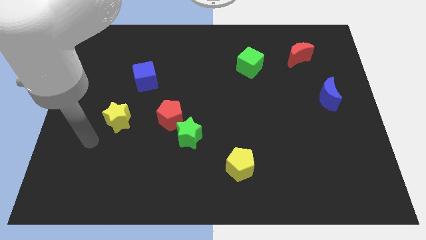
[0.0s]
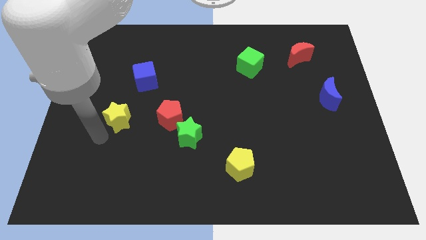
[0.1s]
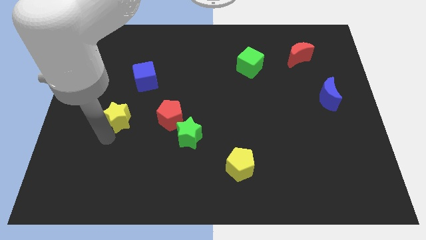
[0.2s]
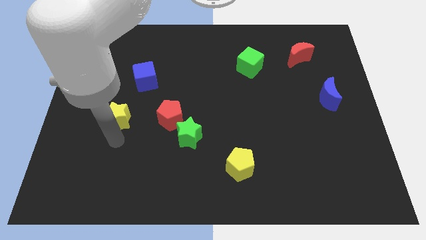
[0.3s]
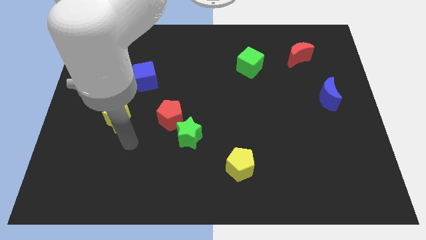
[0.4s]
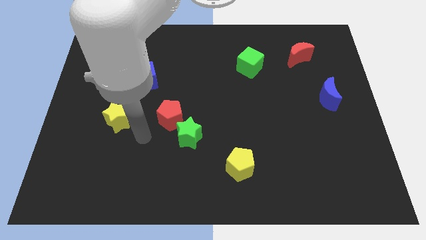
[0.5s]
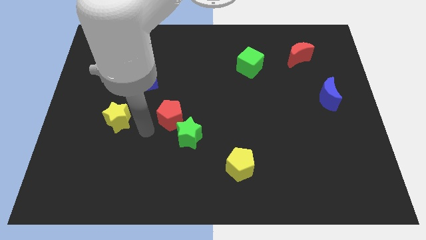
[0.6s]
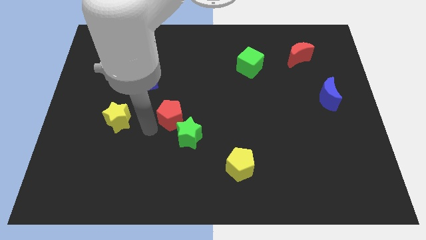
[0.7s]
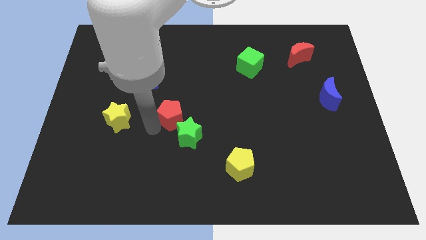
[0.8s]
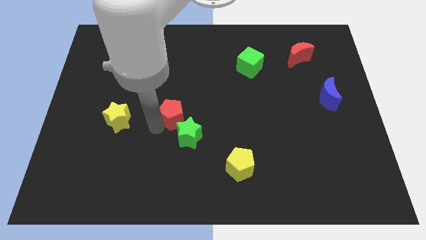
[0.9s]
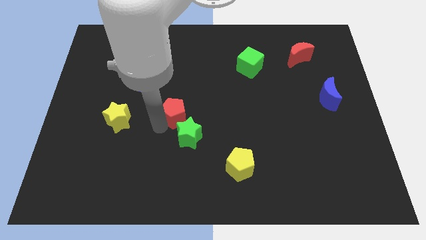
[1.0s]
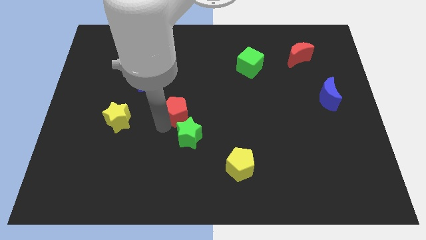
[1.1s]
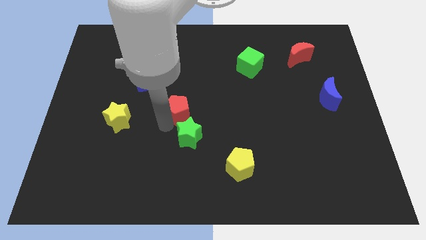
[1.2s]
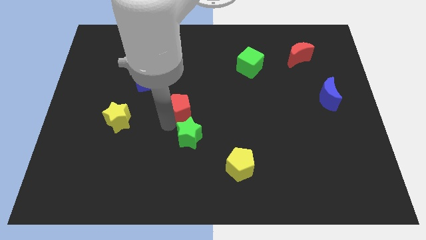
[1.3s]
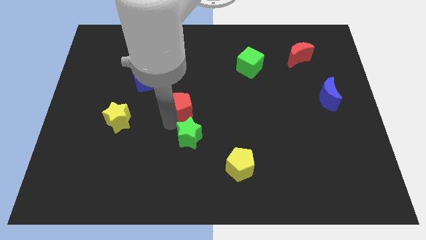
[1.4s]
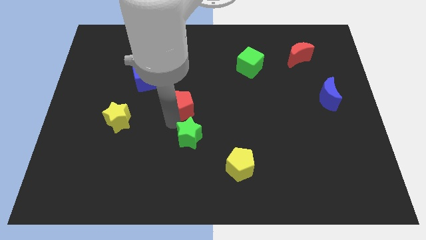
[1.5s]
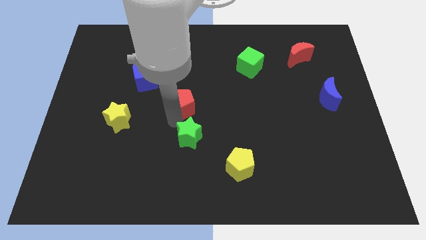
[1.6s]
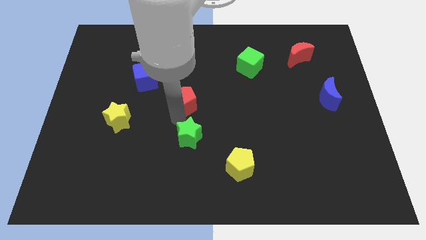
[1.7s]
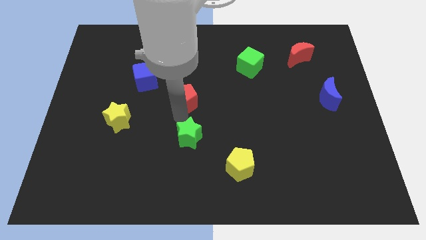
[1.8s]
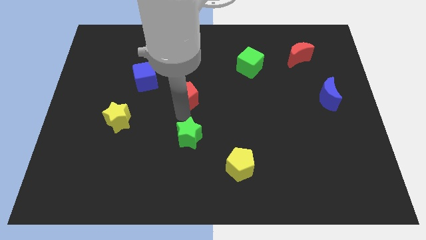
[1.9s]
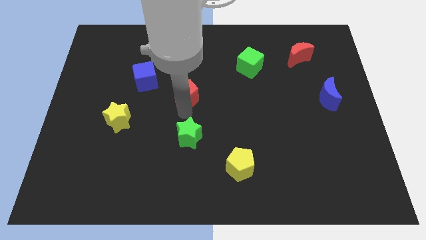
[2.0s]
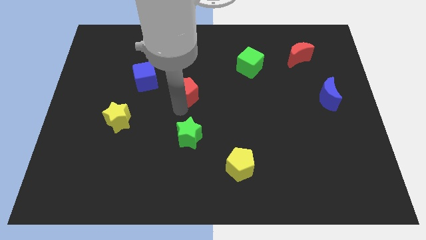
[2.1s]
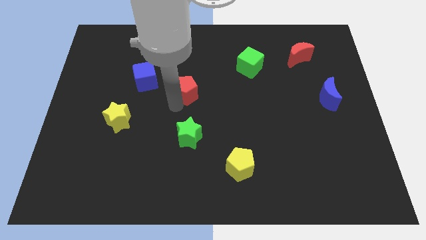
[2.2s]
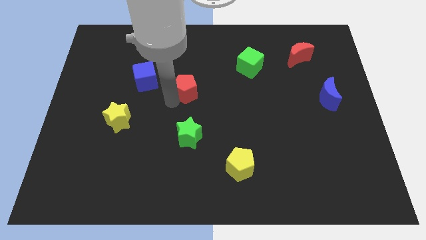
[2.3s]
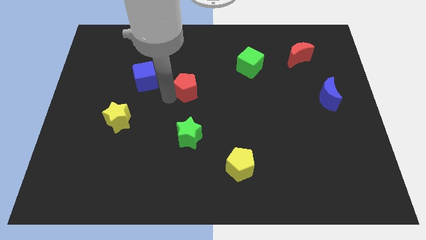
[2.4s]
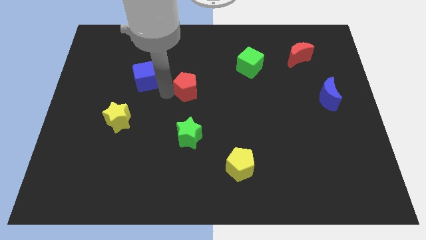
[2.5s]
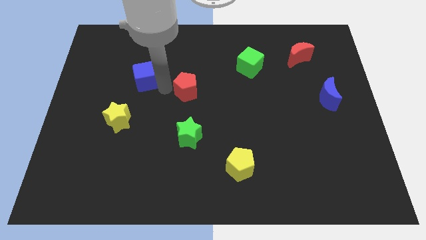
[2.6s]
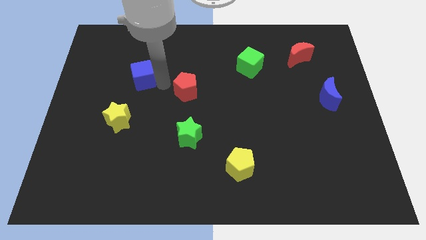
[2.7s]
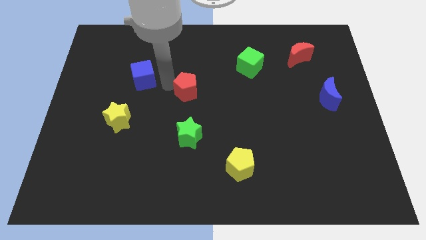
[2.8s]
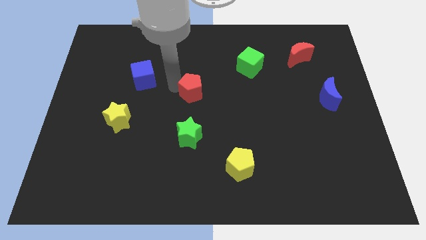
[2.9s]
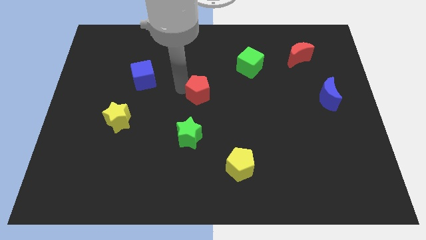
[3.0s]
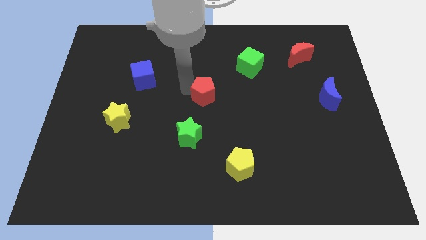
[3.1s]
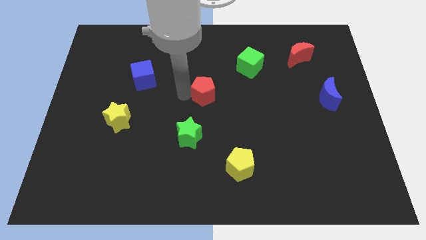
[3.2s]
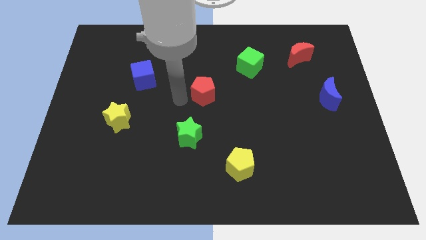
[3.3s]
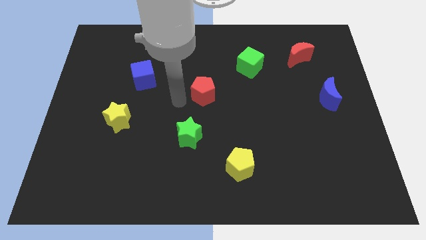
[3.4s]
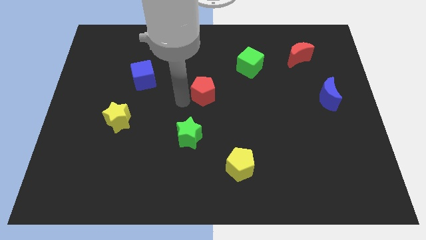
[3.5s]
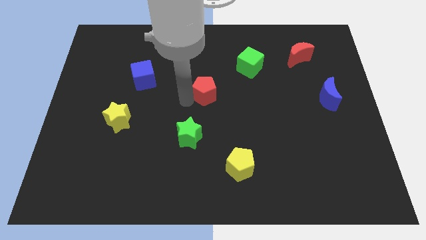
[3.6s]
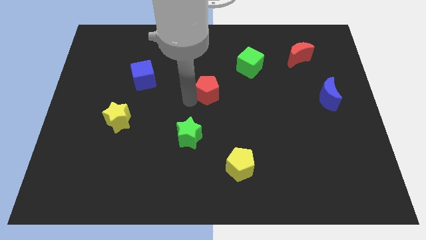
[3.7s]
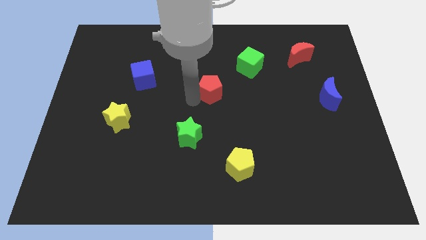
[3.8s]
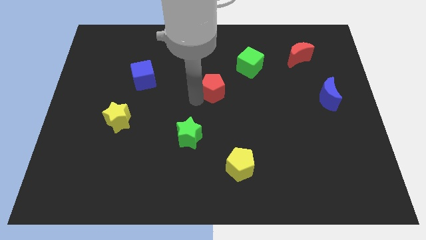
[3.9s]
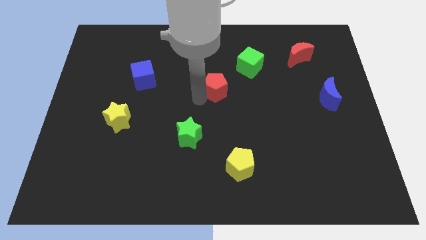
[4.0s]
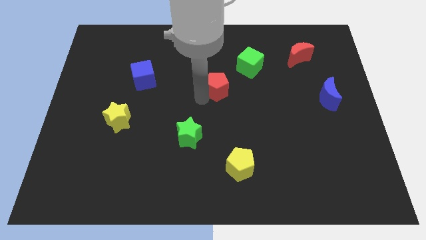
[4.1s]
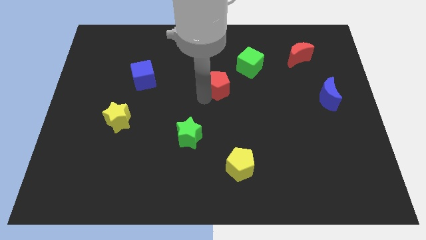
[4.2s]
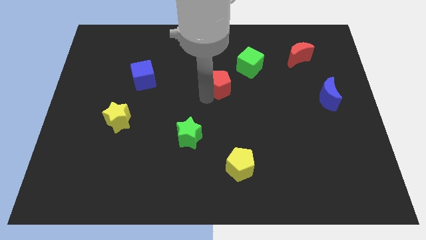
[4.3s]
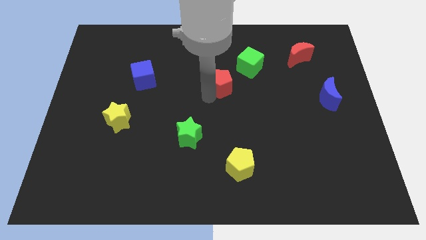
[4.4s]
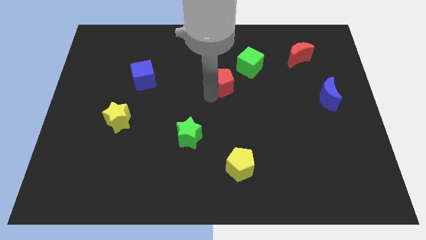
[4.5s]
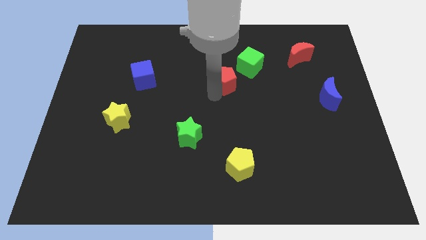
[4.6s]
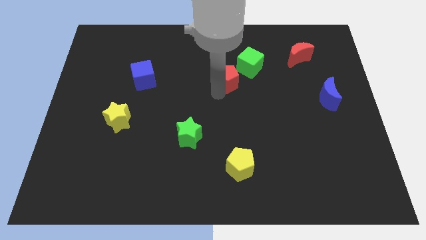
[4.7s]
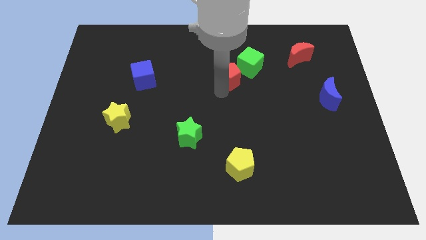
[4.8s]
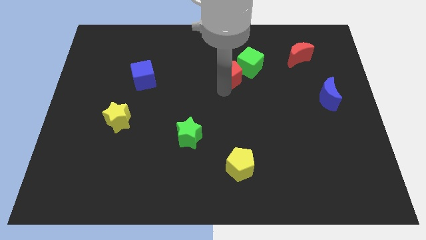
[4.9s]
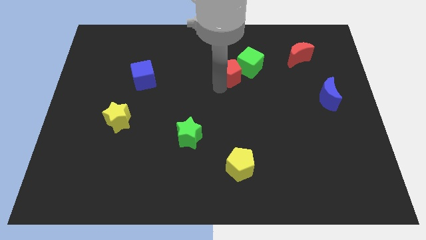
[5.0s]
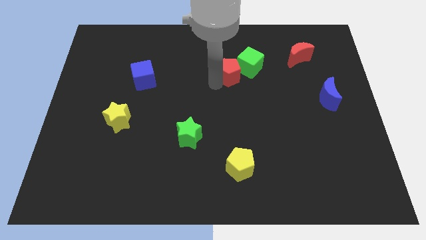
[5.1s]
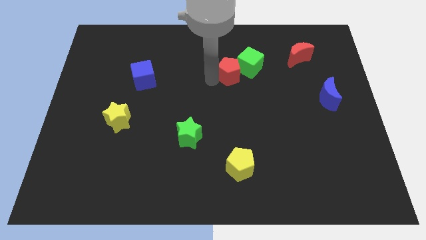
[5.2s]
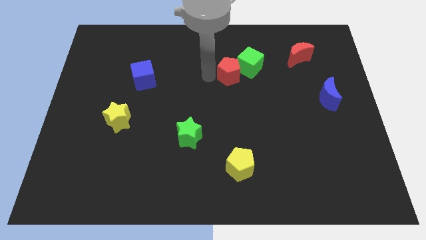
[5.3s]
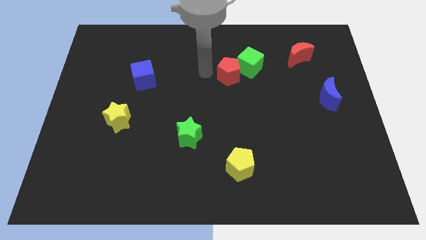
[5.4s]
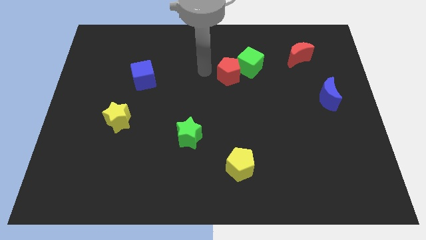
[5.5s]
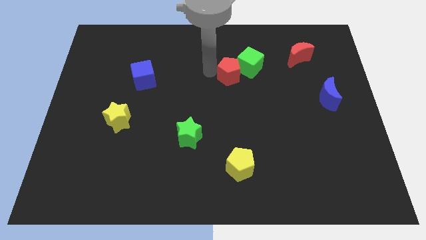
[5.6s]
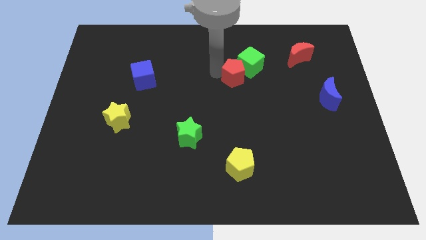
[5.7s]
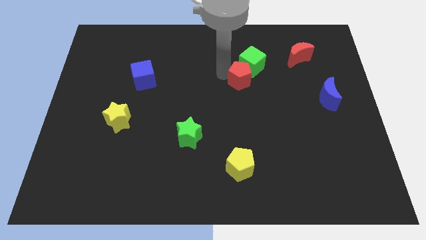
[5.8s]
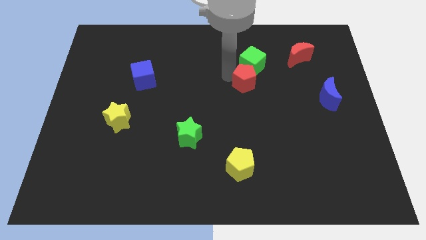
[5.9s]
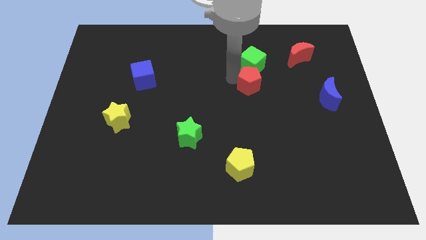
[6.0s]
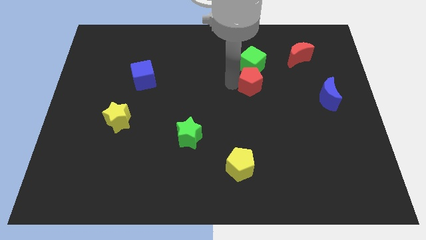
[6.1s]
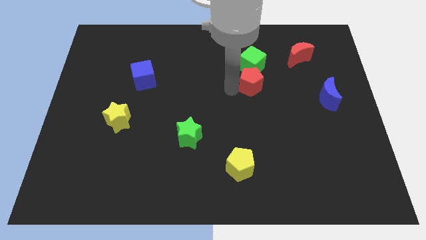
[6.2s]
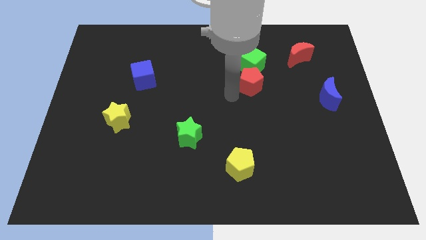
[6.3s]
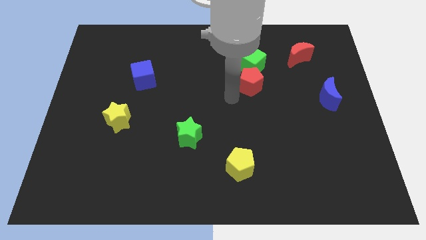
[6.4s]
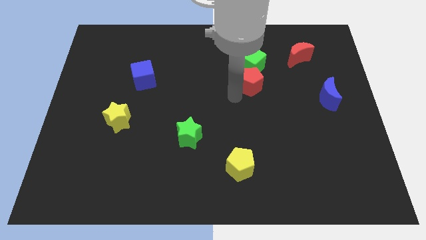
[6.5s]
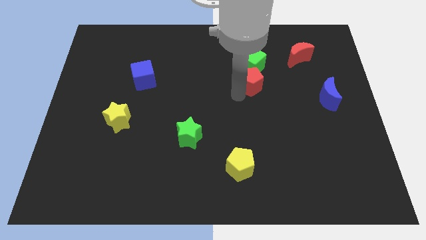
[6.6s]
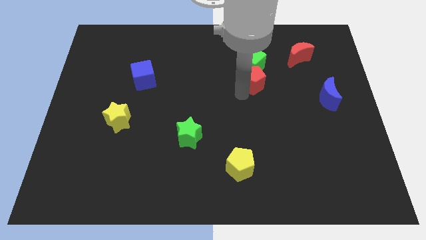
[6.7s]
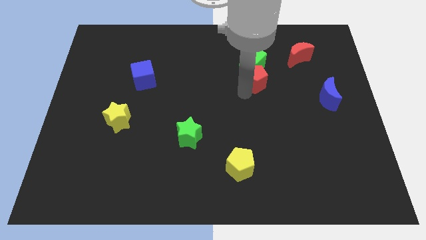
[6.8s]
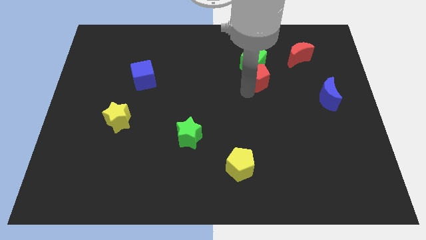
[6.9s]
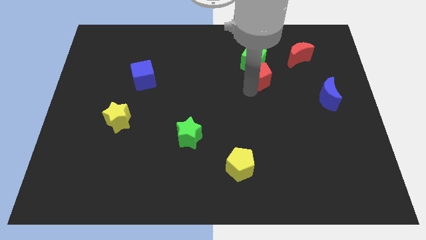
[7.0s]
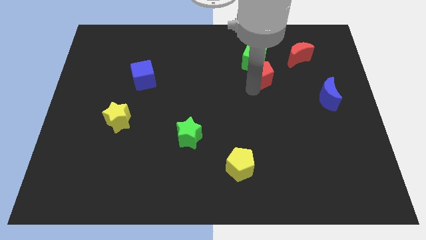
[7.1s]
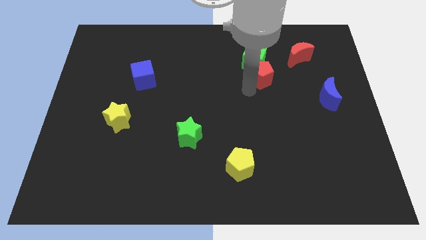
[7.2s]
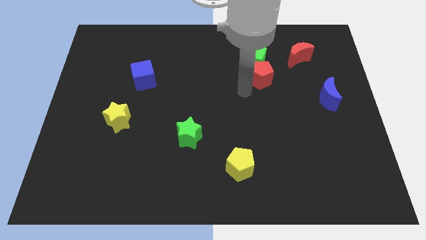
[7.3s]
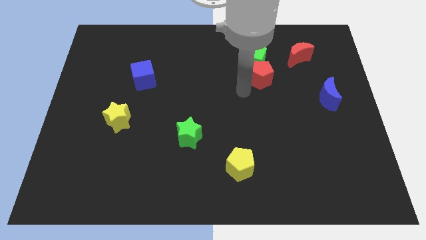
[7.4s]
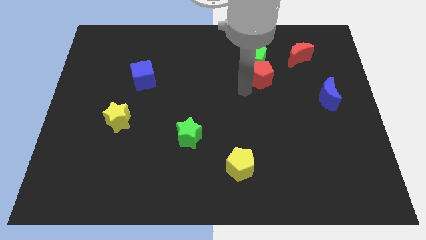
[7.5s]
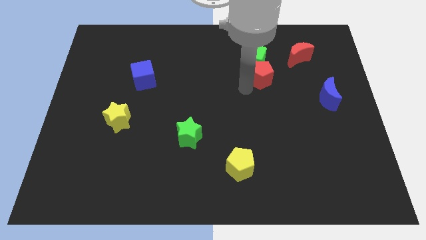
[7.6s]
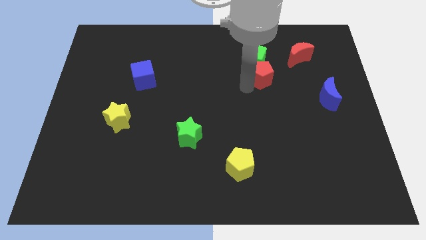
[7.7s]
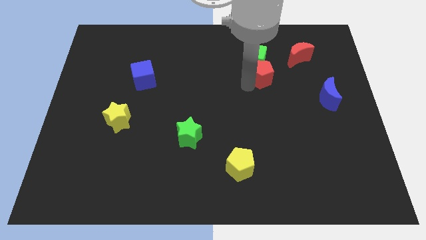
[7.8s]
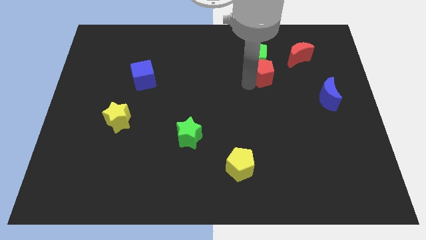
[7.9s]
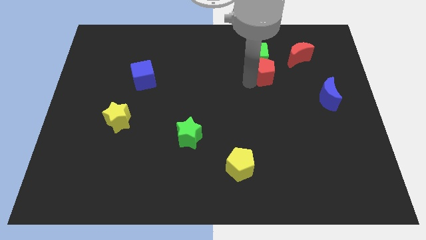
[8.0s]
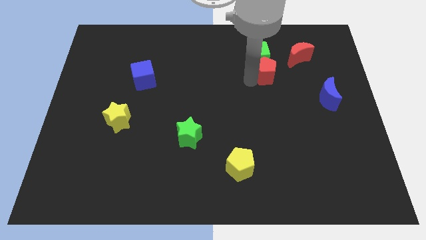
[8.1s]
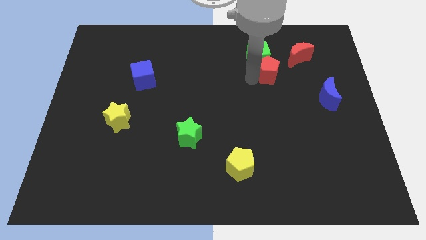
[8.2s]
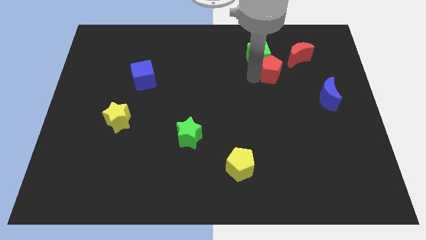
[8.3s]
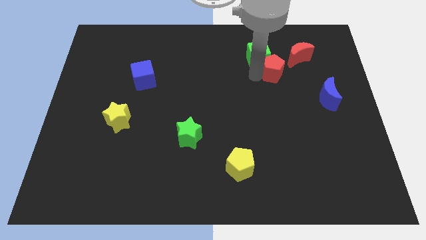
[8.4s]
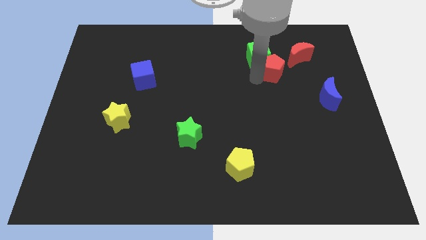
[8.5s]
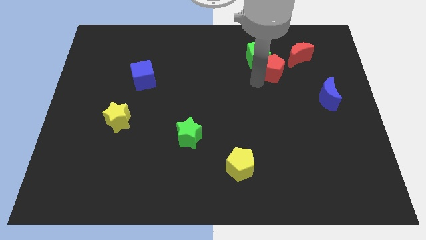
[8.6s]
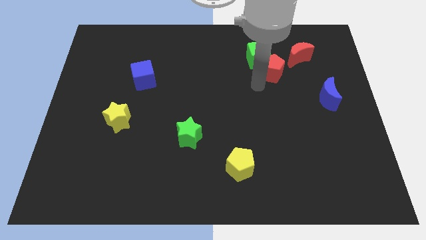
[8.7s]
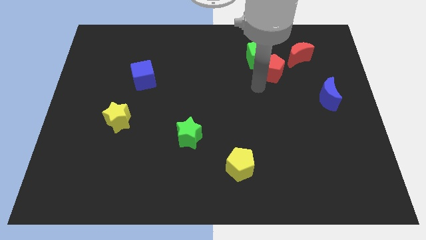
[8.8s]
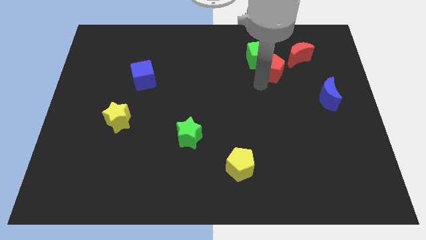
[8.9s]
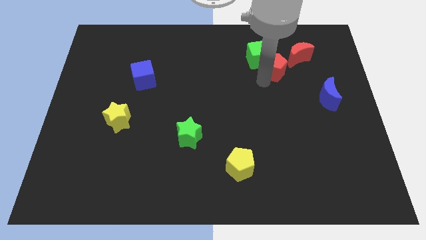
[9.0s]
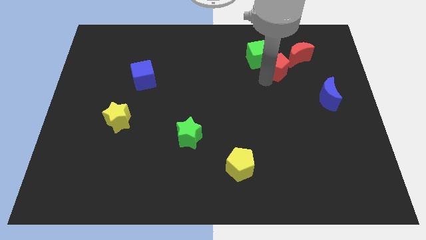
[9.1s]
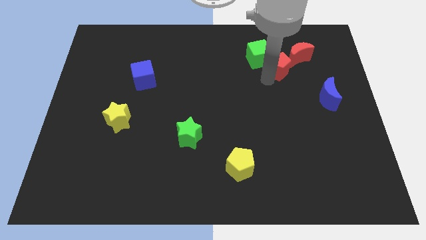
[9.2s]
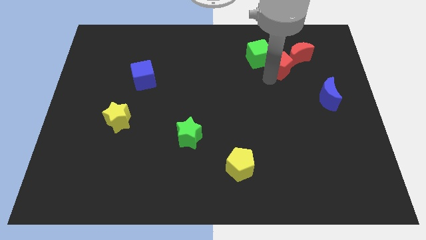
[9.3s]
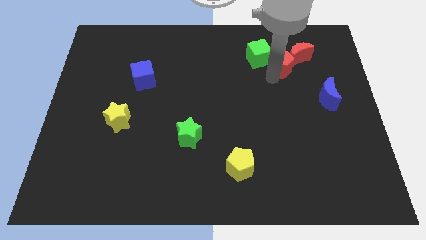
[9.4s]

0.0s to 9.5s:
slide the red pentagon close to the red moon
